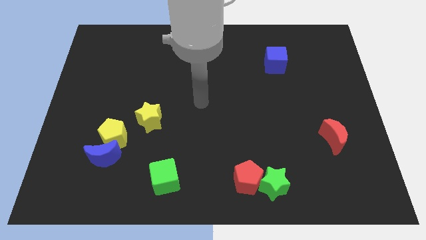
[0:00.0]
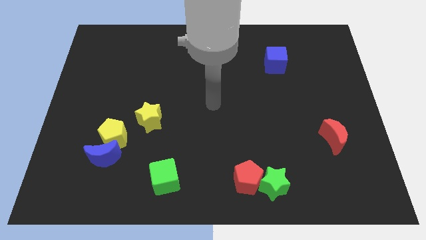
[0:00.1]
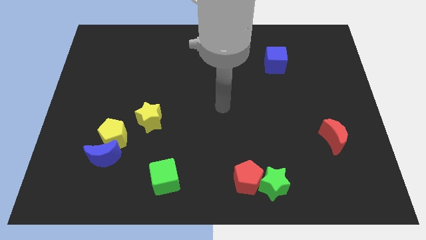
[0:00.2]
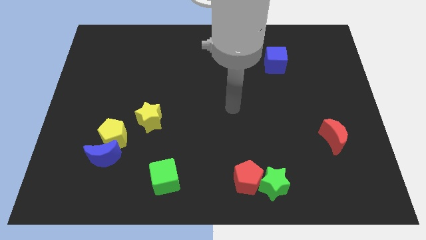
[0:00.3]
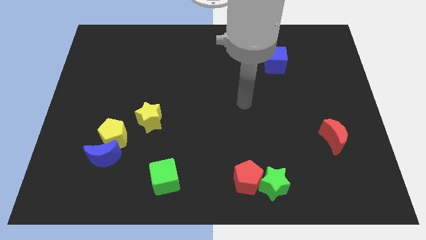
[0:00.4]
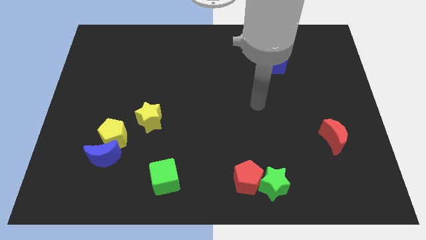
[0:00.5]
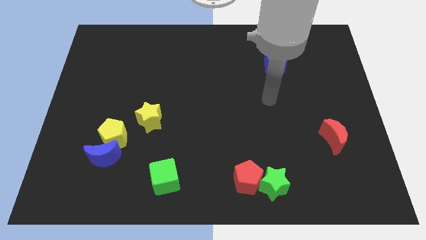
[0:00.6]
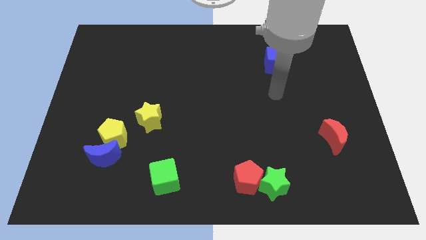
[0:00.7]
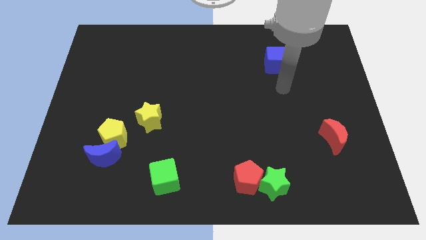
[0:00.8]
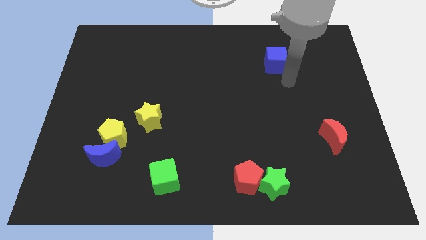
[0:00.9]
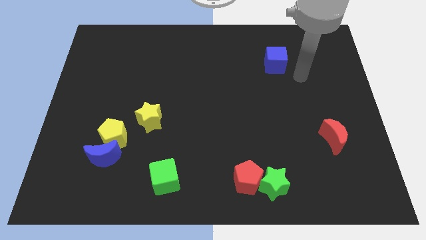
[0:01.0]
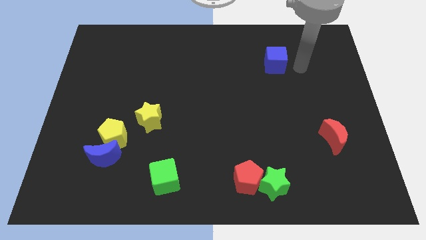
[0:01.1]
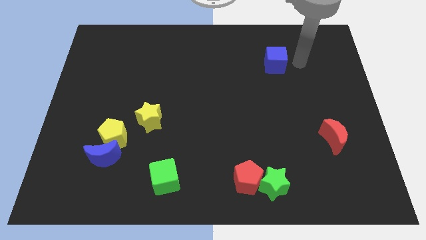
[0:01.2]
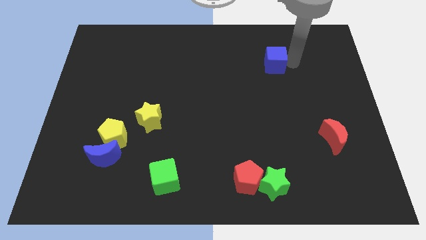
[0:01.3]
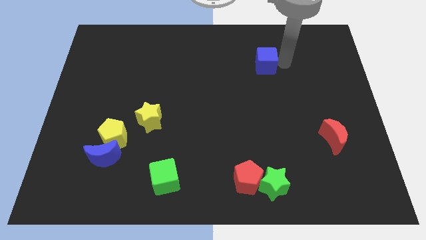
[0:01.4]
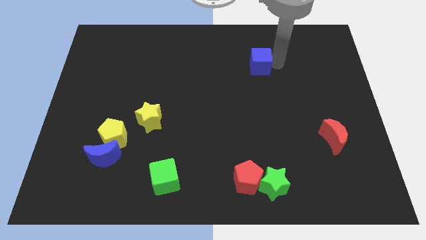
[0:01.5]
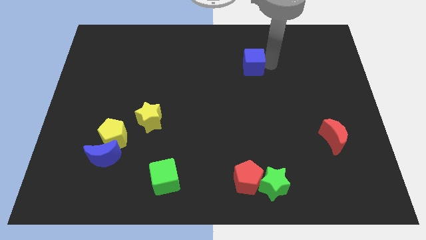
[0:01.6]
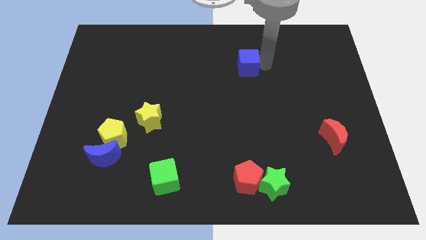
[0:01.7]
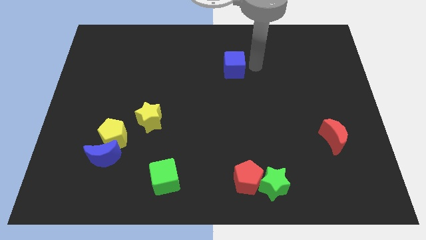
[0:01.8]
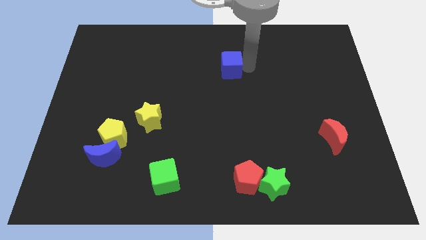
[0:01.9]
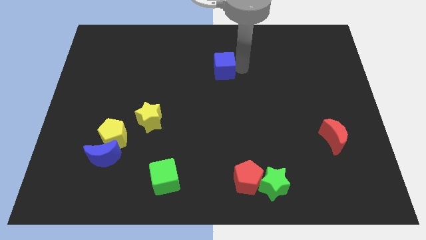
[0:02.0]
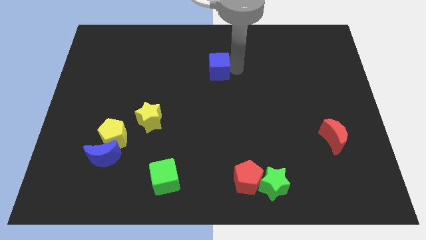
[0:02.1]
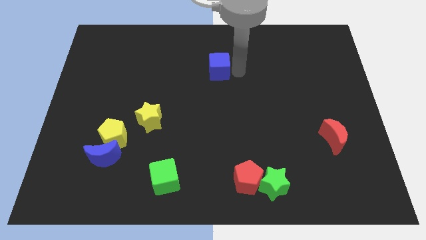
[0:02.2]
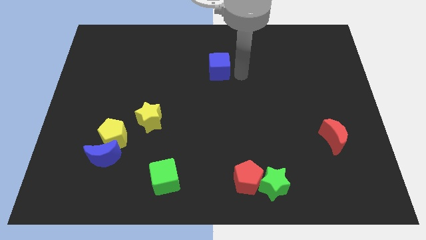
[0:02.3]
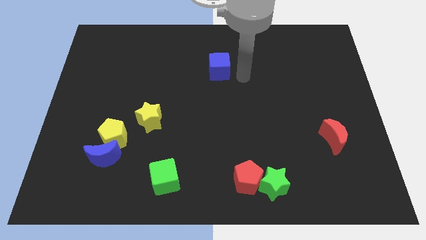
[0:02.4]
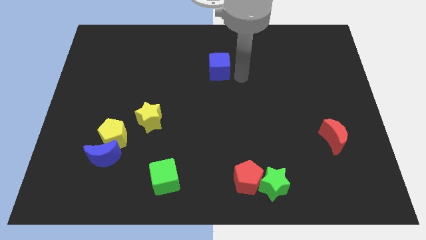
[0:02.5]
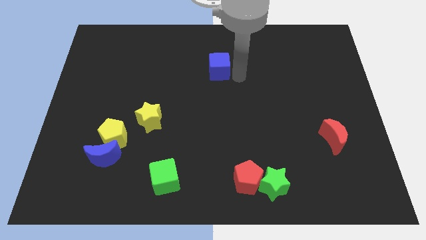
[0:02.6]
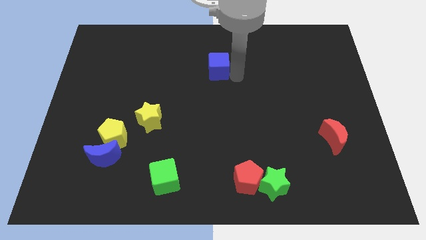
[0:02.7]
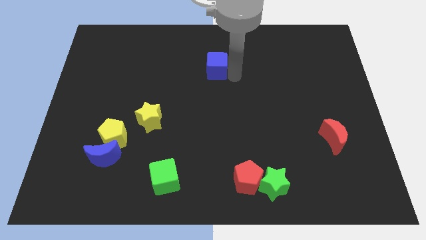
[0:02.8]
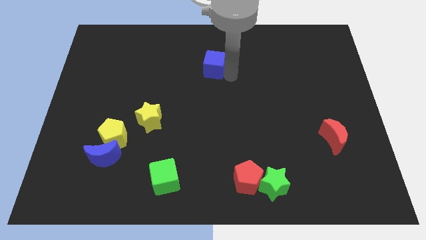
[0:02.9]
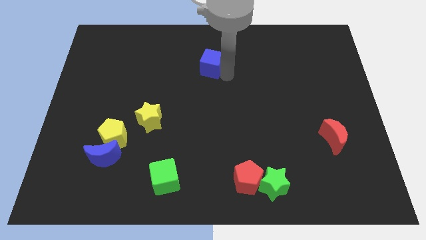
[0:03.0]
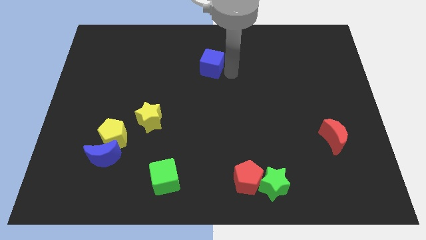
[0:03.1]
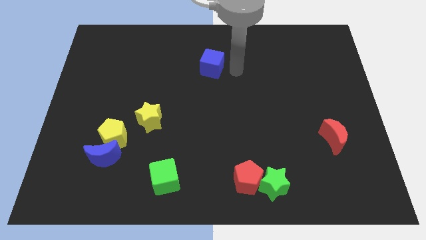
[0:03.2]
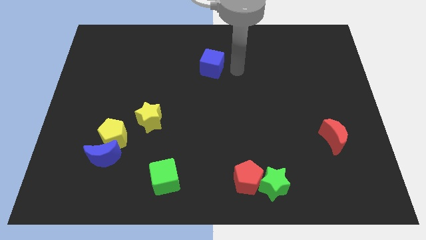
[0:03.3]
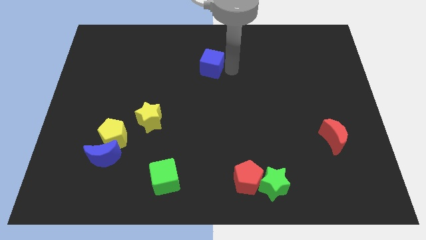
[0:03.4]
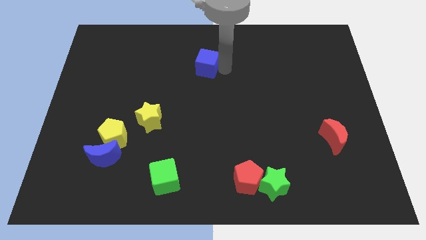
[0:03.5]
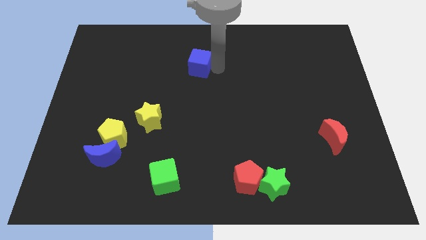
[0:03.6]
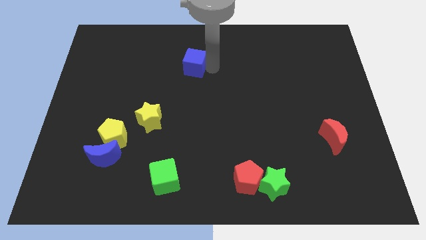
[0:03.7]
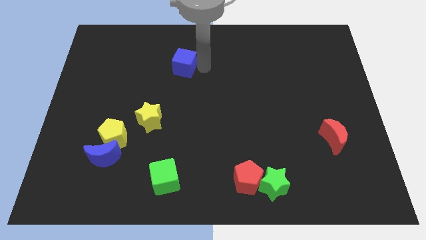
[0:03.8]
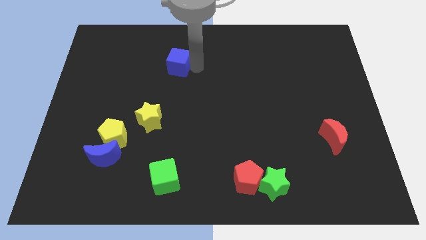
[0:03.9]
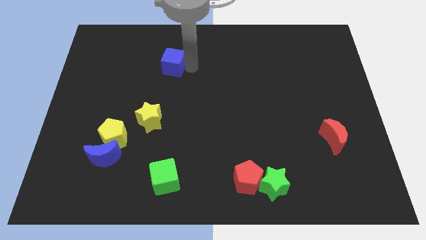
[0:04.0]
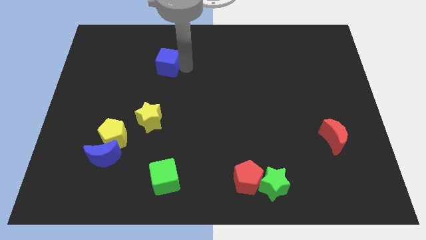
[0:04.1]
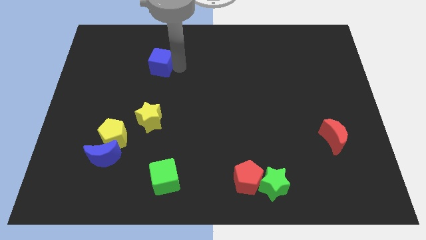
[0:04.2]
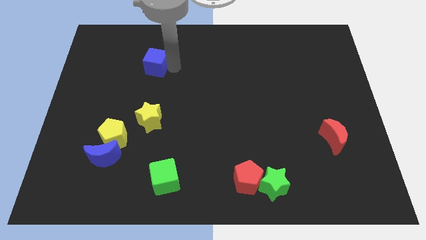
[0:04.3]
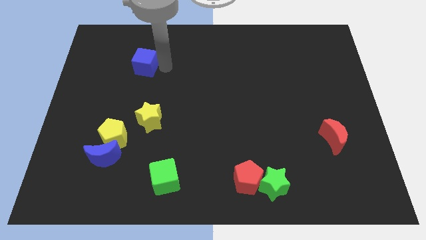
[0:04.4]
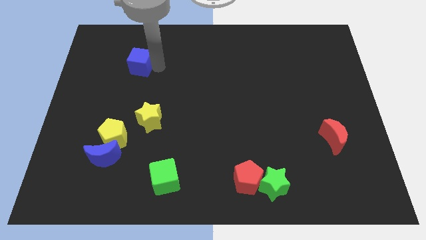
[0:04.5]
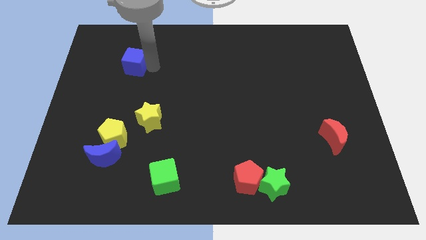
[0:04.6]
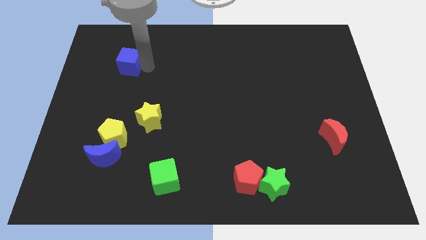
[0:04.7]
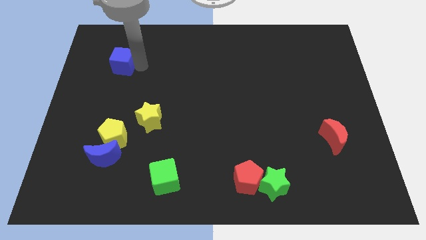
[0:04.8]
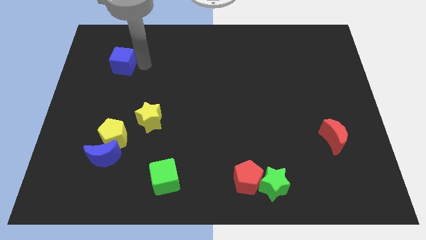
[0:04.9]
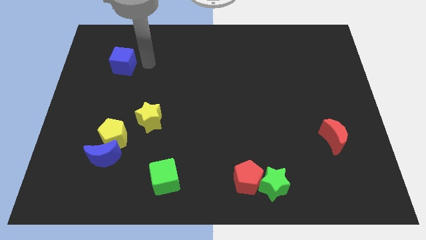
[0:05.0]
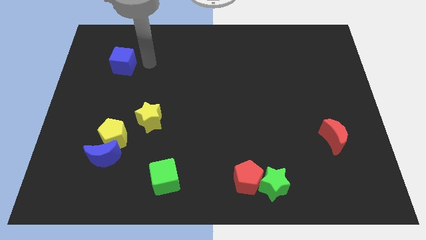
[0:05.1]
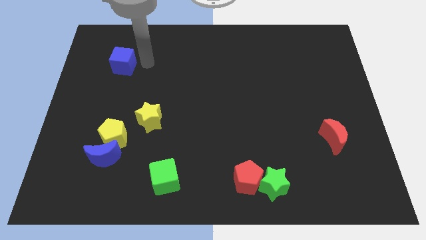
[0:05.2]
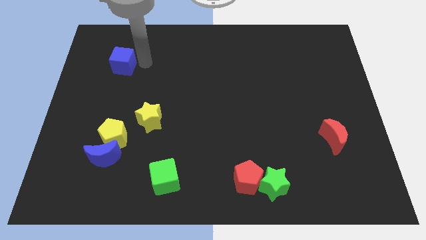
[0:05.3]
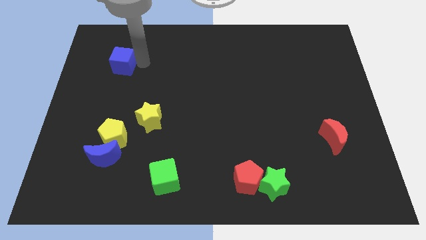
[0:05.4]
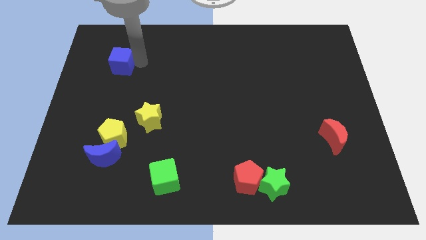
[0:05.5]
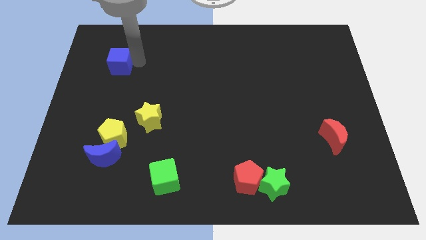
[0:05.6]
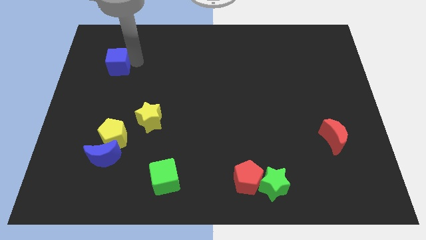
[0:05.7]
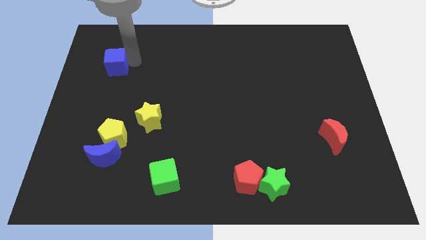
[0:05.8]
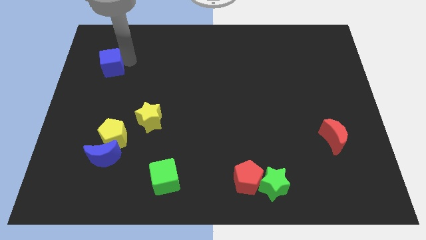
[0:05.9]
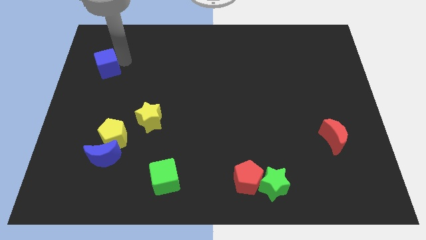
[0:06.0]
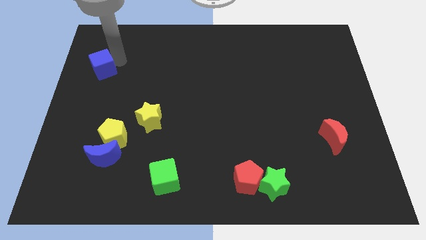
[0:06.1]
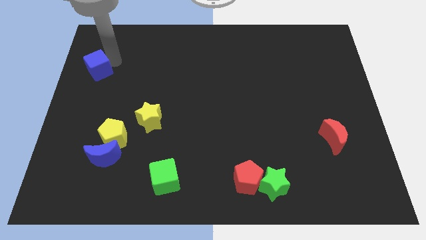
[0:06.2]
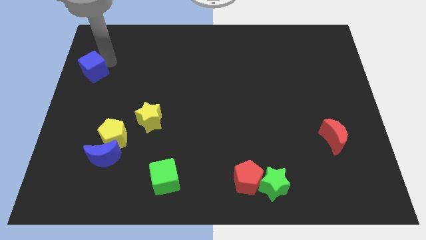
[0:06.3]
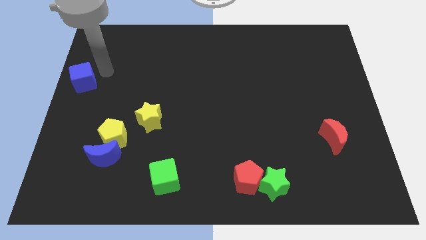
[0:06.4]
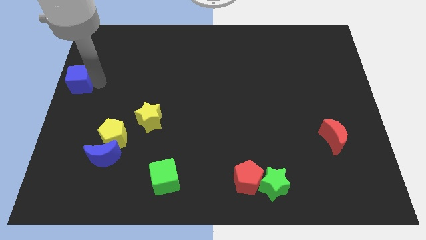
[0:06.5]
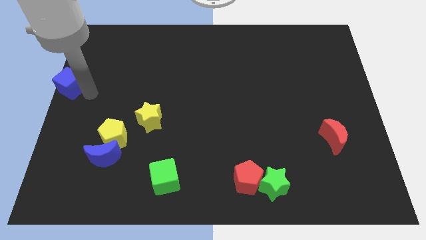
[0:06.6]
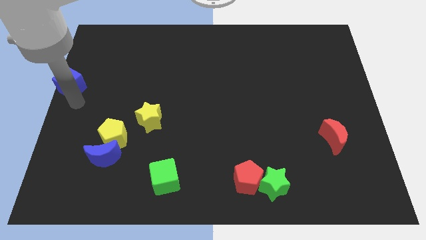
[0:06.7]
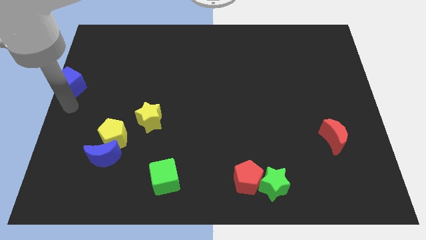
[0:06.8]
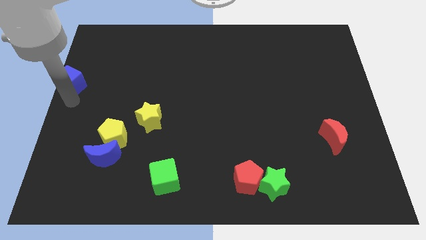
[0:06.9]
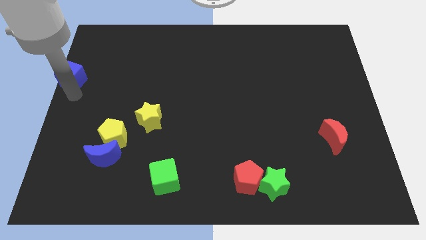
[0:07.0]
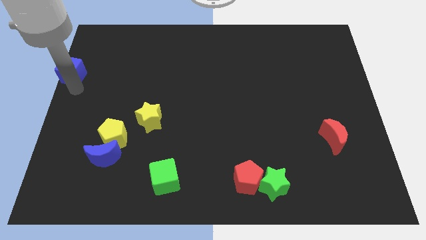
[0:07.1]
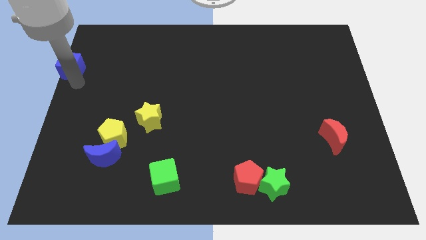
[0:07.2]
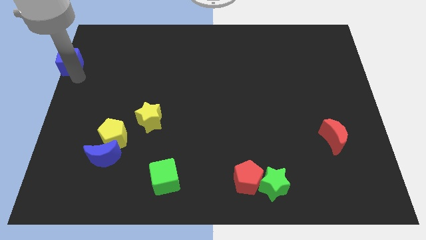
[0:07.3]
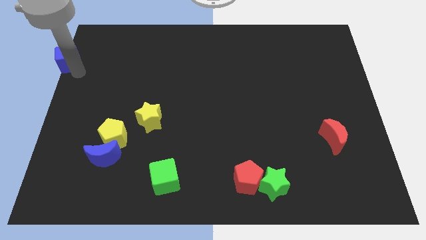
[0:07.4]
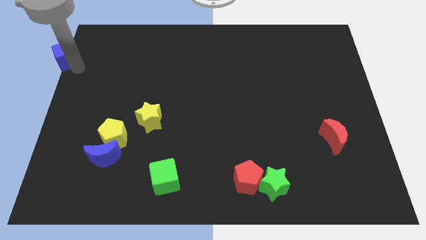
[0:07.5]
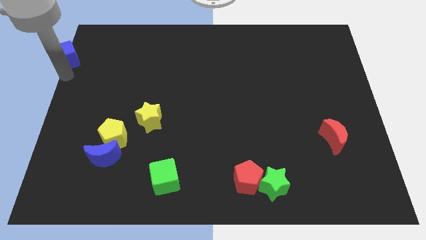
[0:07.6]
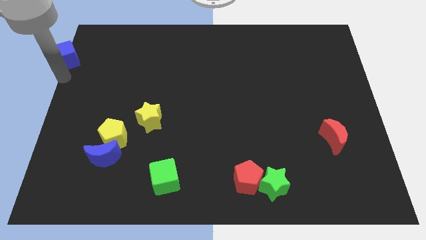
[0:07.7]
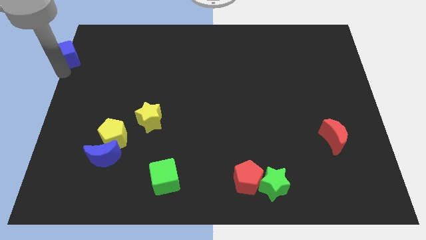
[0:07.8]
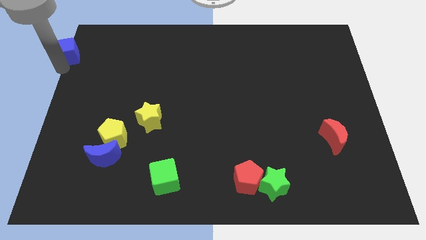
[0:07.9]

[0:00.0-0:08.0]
put the blue cube to the top left
